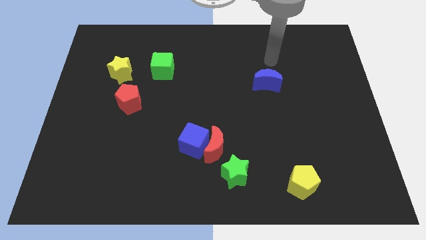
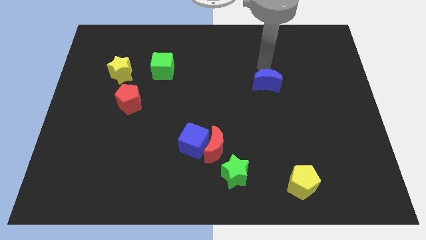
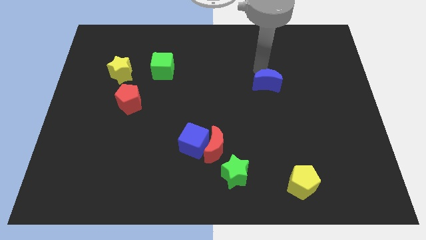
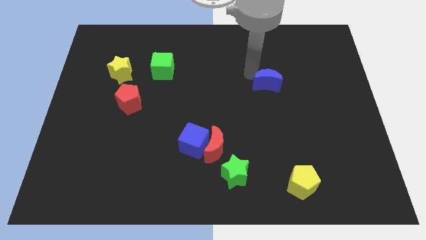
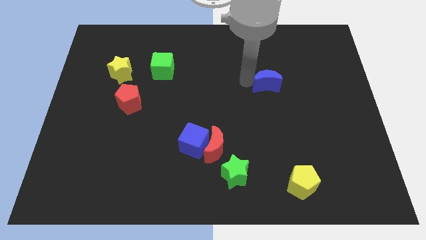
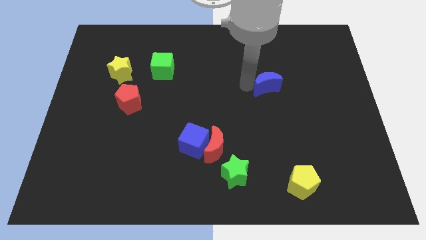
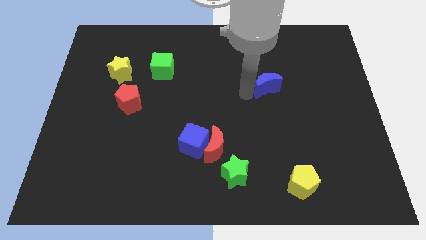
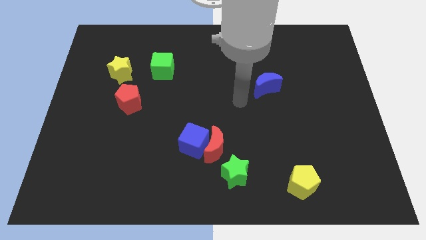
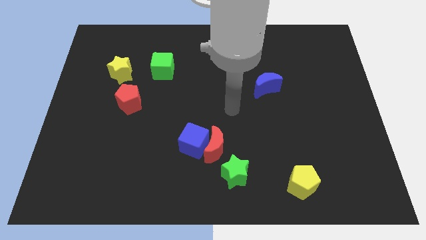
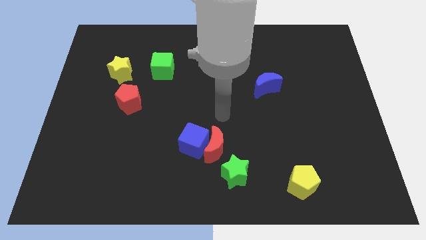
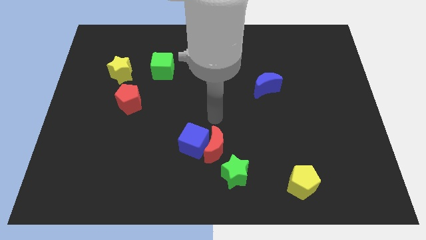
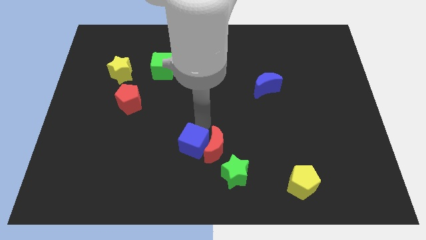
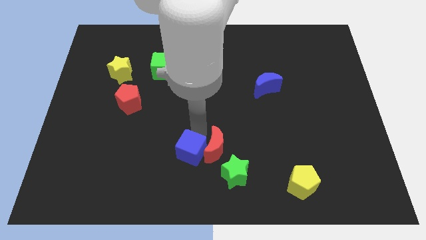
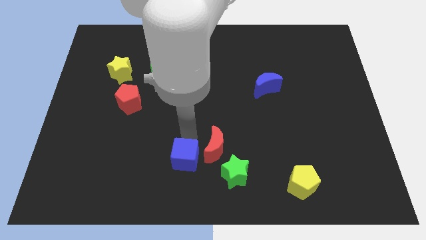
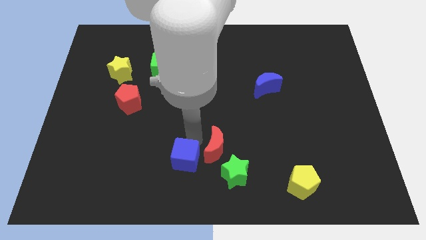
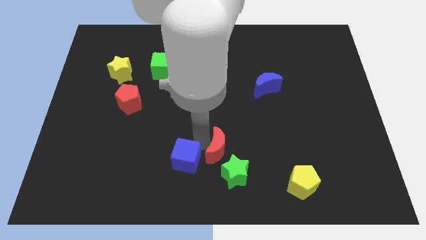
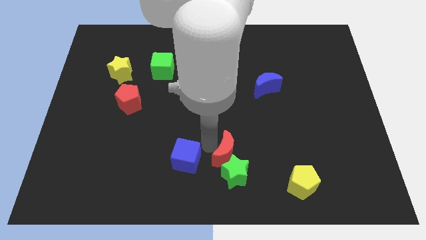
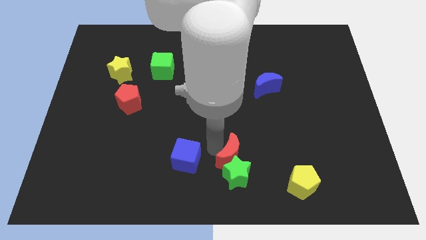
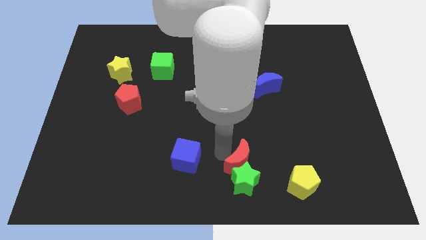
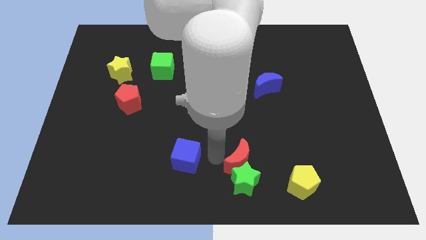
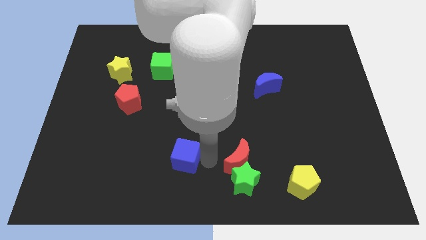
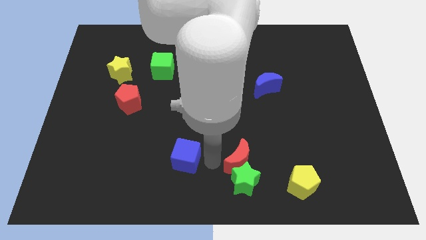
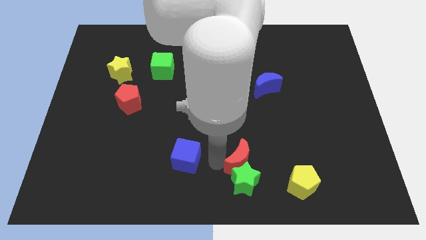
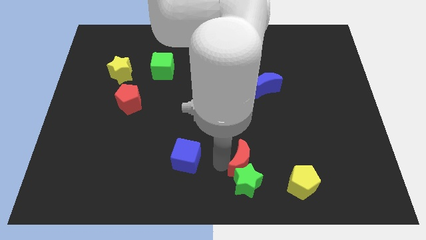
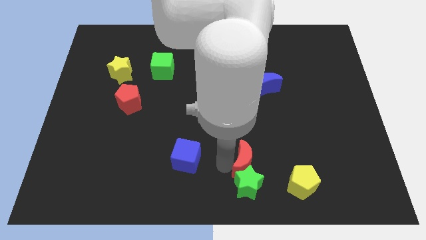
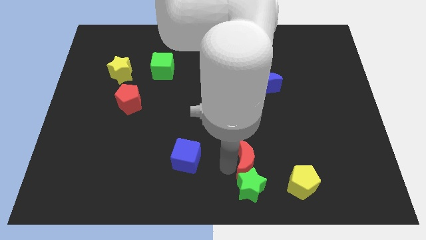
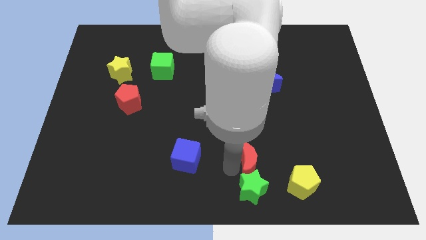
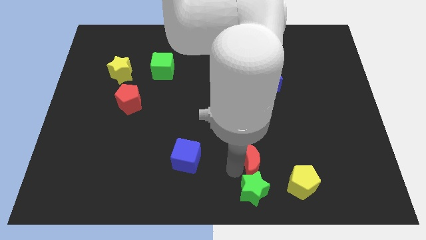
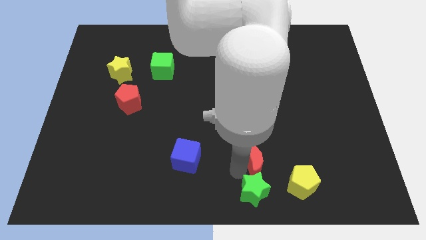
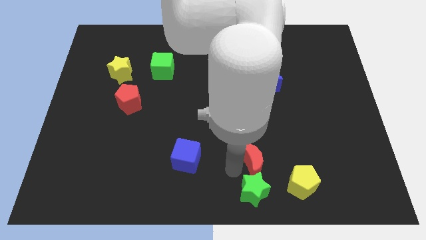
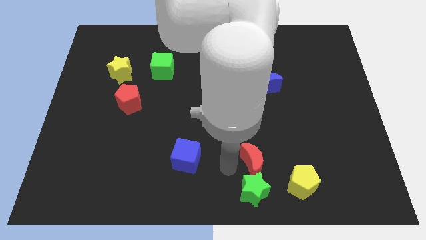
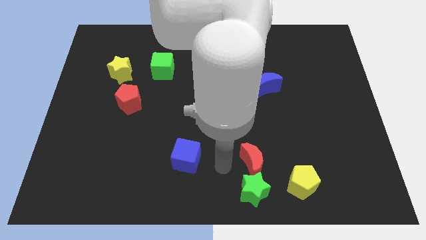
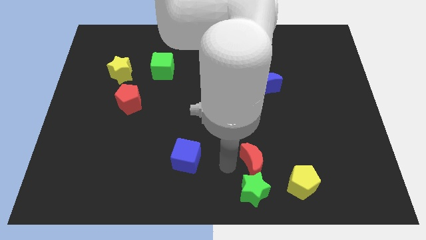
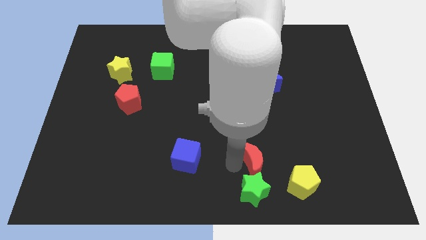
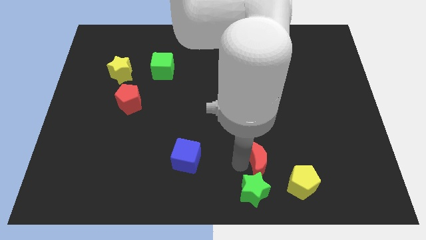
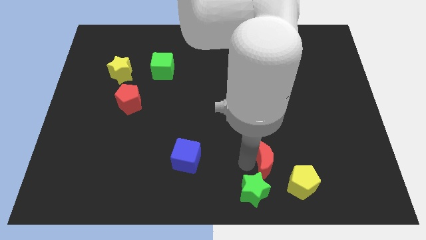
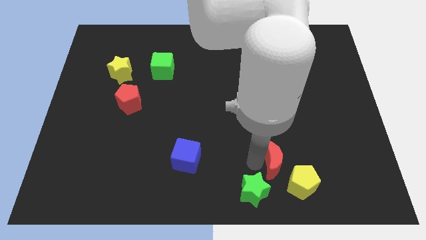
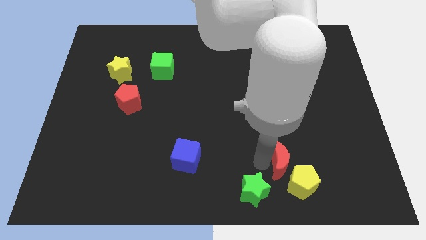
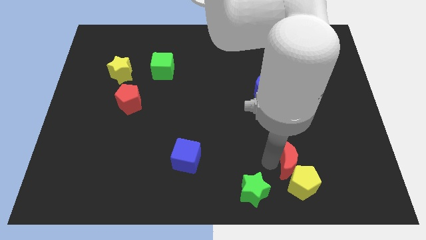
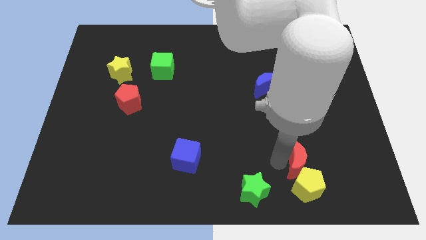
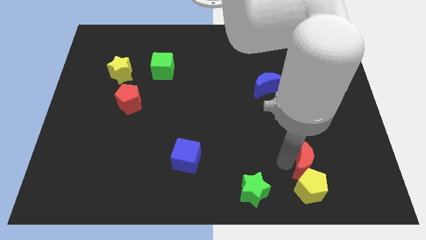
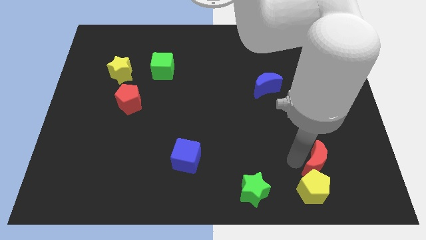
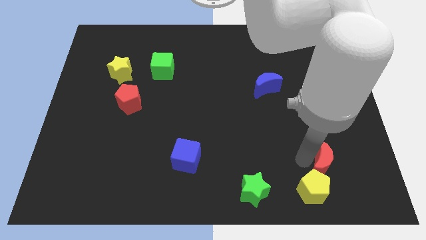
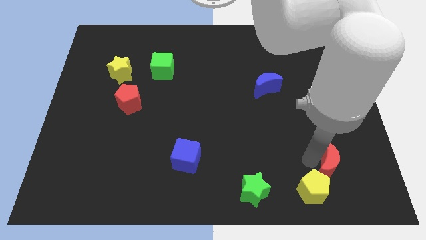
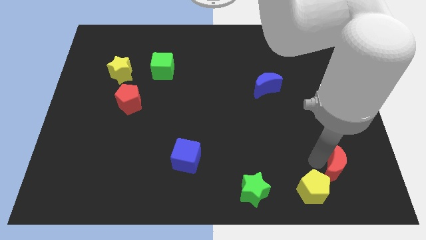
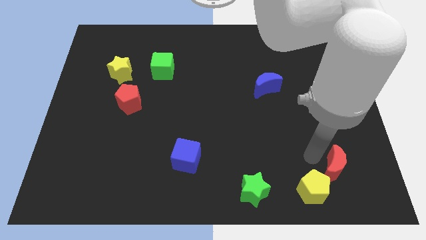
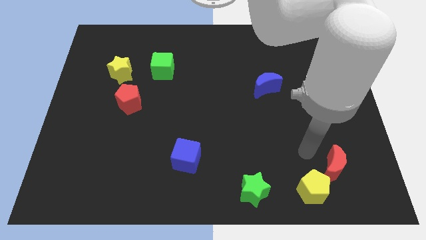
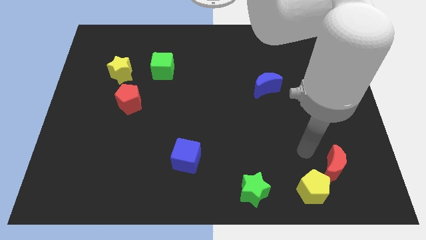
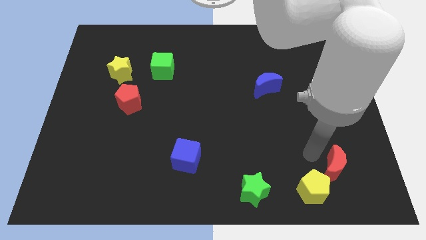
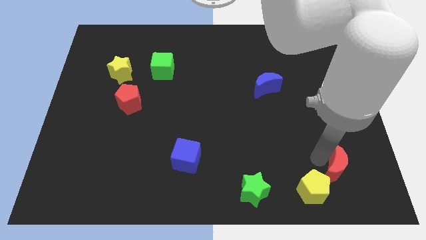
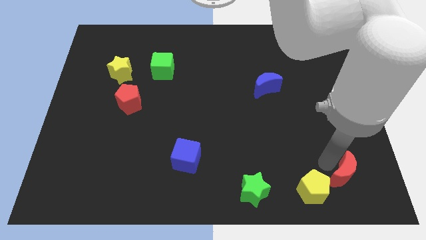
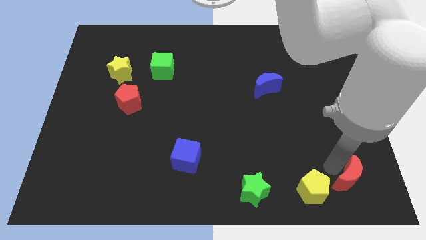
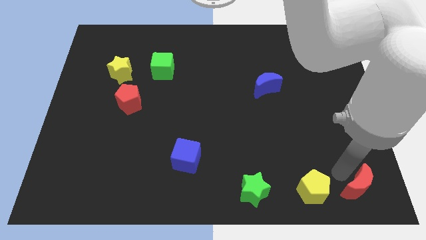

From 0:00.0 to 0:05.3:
move the red moon to the bottom right of the board

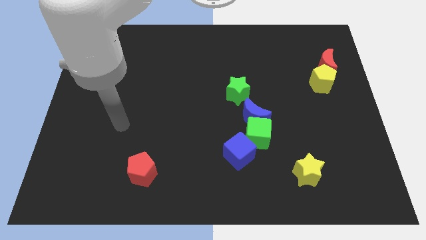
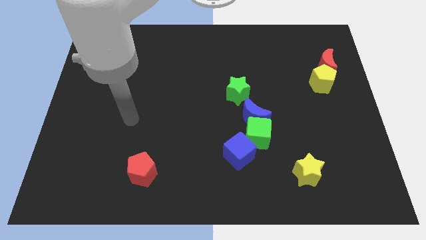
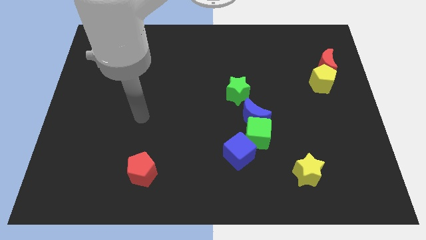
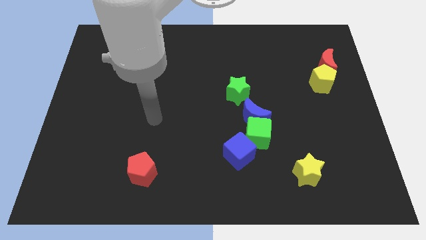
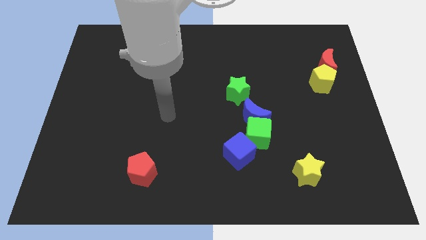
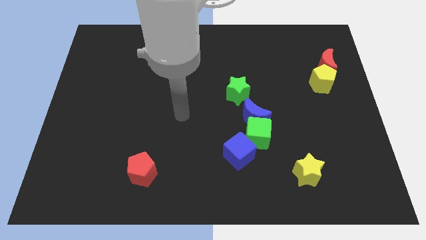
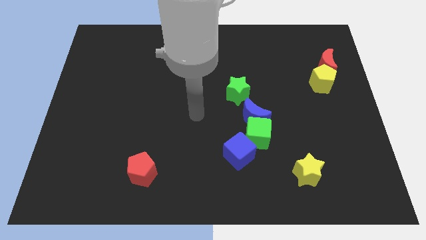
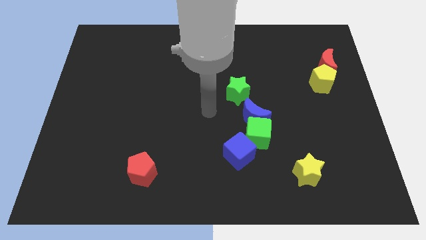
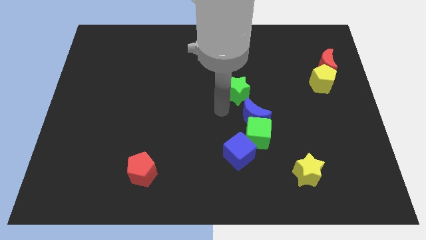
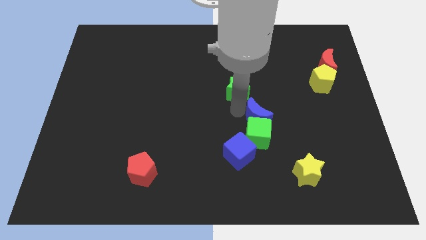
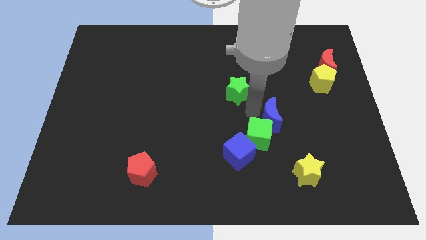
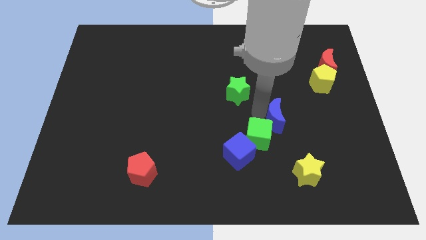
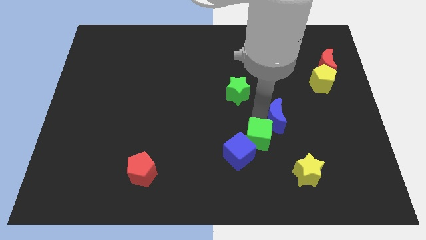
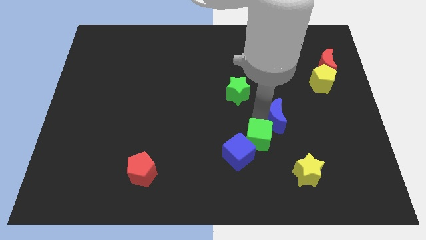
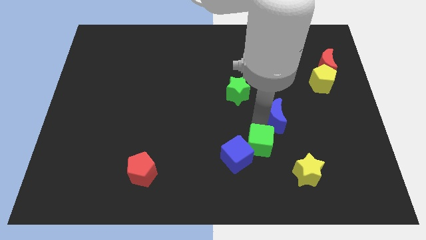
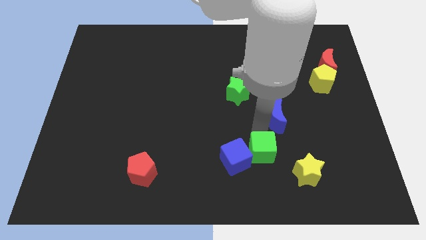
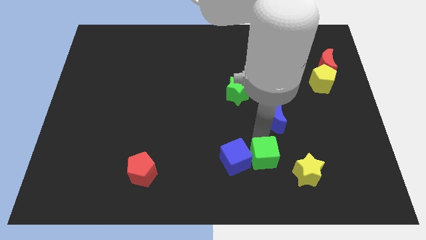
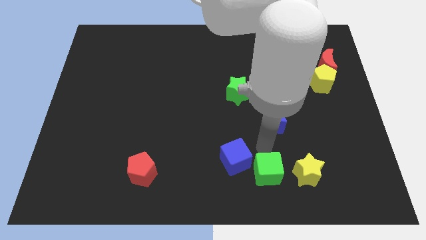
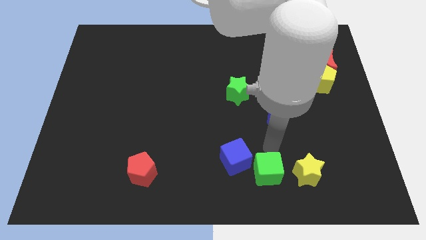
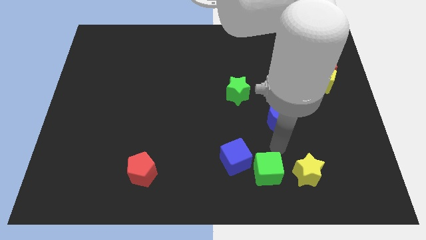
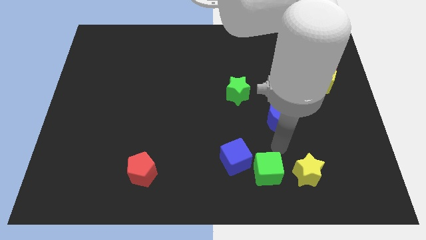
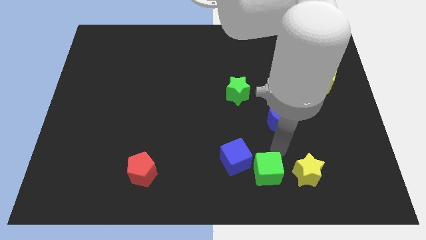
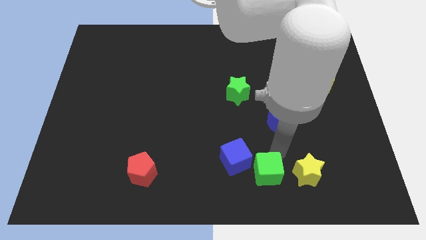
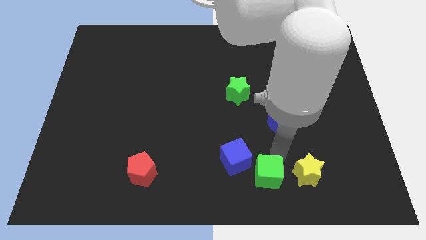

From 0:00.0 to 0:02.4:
put the green cube to the bottom

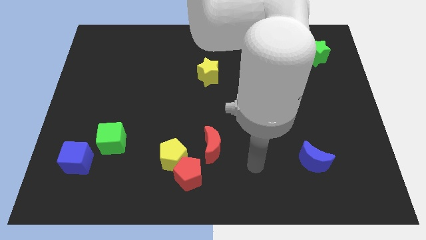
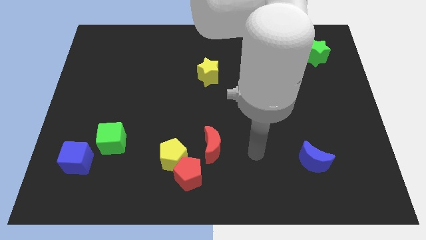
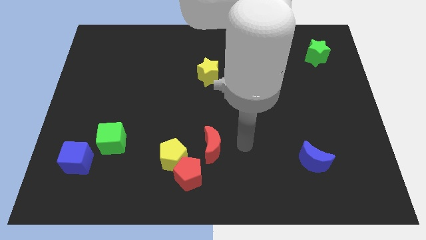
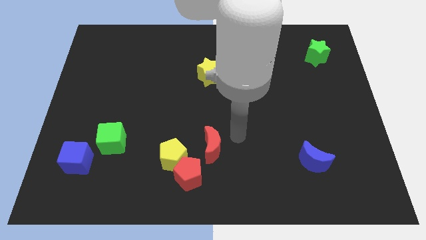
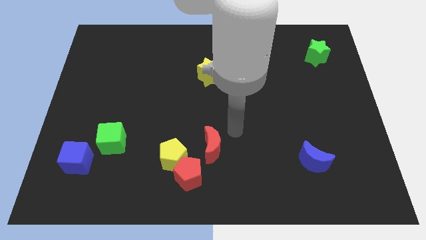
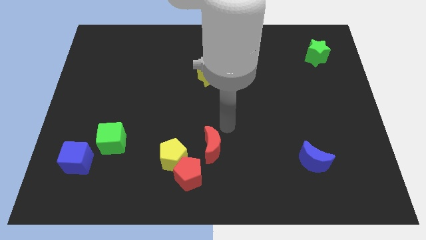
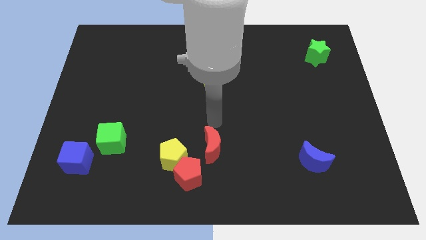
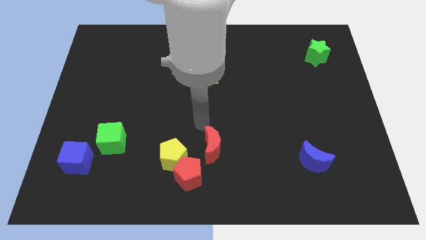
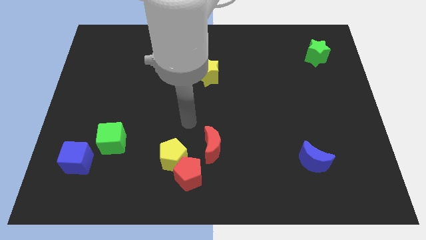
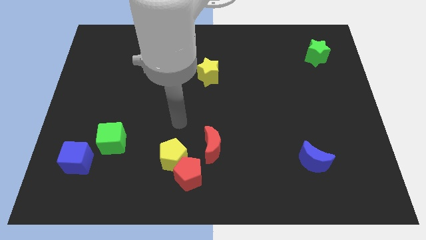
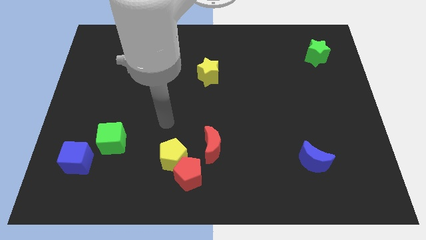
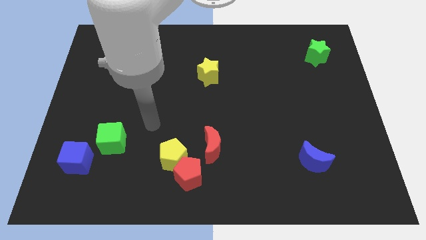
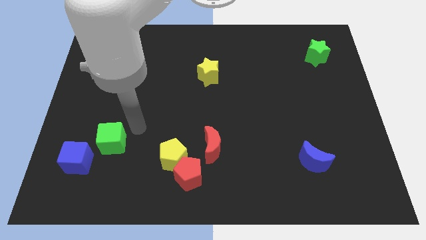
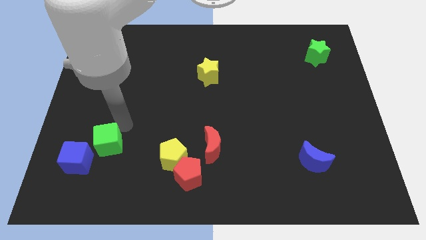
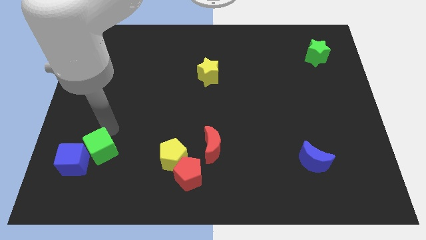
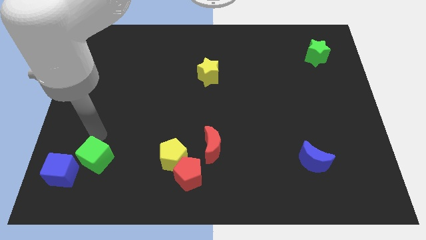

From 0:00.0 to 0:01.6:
put the blue cube to the bottom left corner
